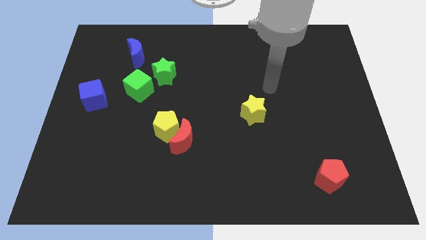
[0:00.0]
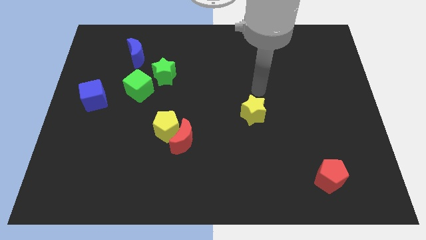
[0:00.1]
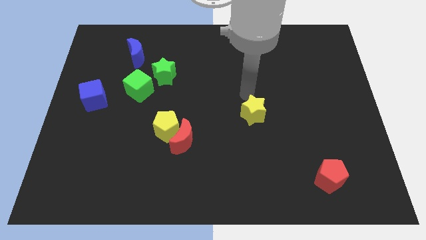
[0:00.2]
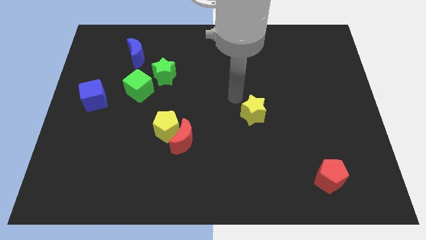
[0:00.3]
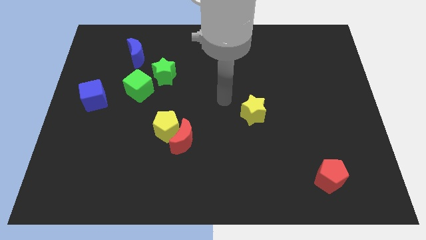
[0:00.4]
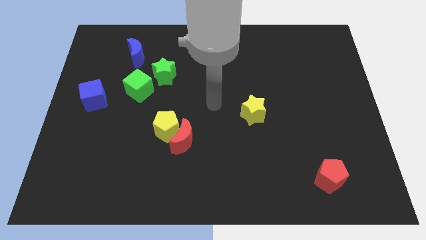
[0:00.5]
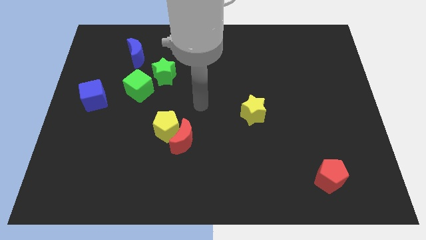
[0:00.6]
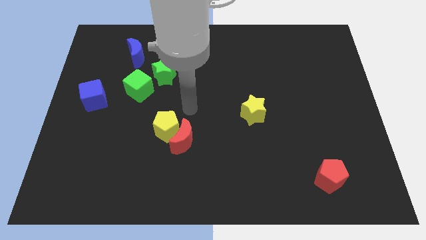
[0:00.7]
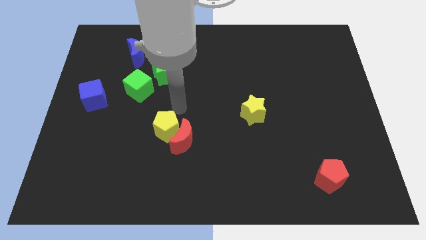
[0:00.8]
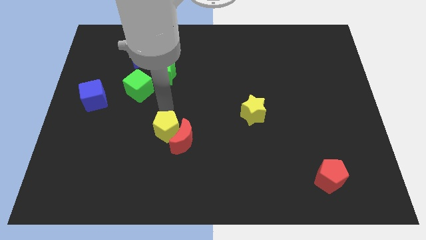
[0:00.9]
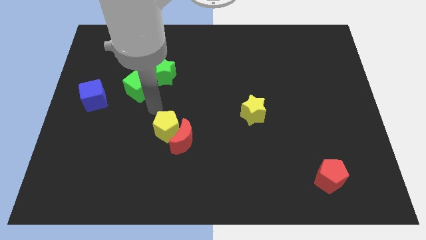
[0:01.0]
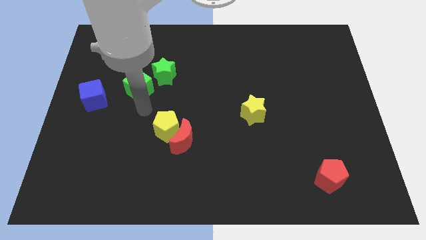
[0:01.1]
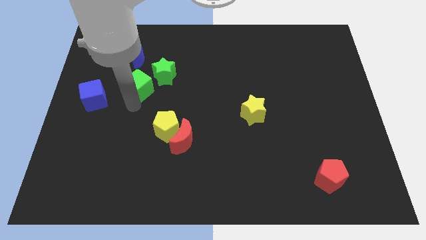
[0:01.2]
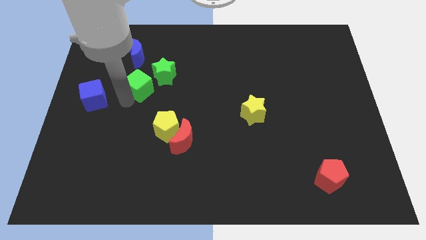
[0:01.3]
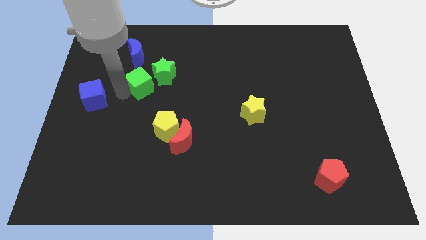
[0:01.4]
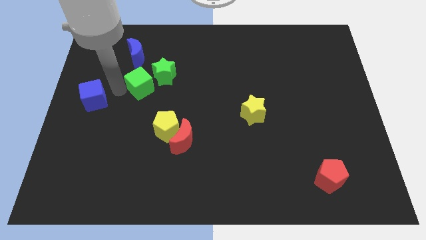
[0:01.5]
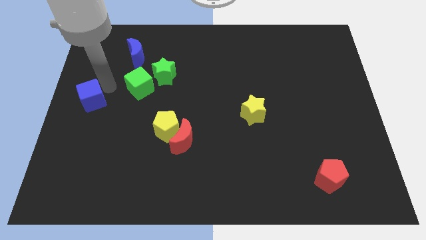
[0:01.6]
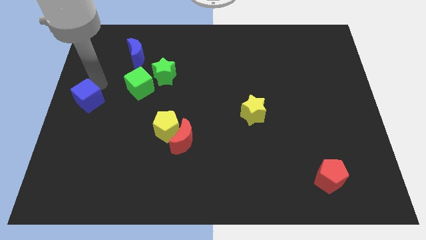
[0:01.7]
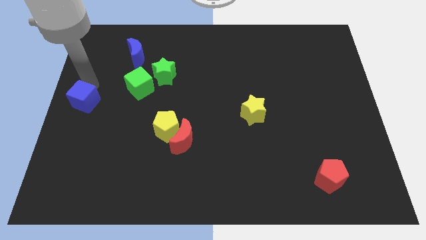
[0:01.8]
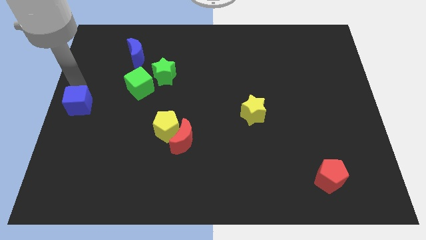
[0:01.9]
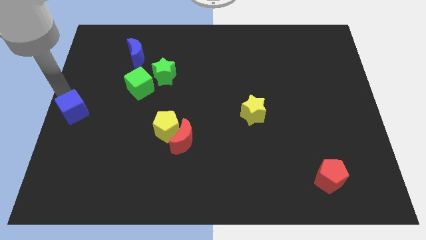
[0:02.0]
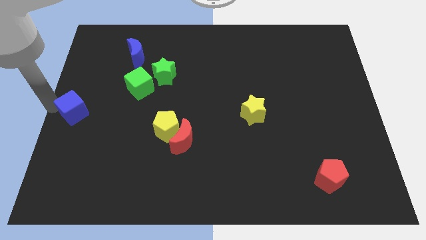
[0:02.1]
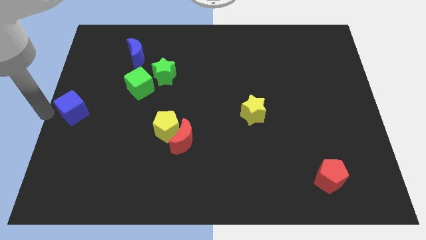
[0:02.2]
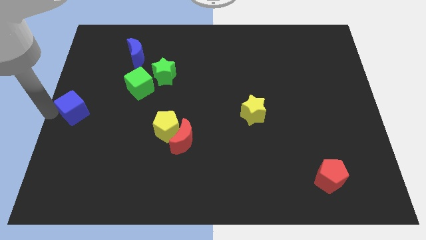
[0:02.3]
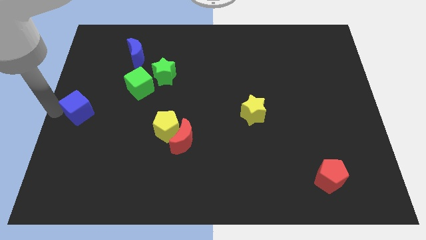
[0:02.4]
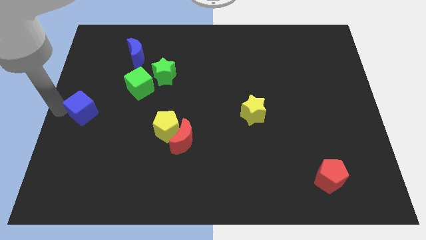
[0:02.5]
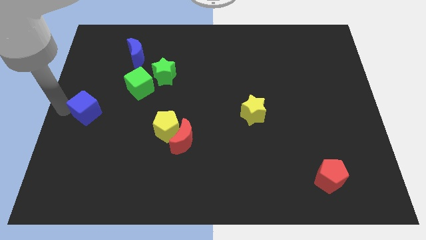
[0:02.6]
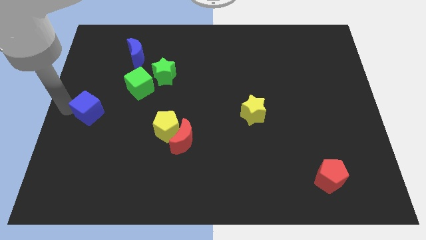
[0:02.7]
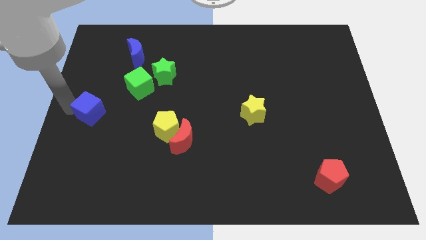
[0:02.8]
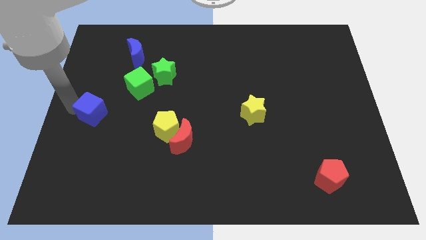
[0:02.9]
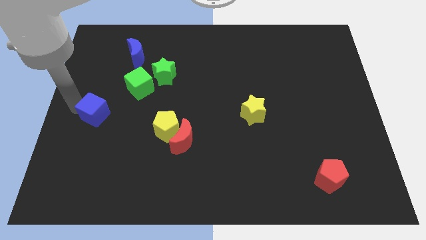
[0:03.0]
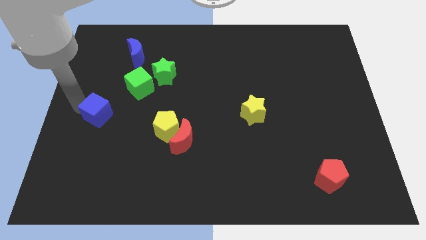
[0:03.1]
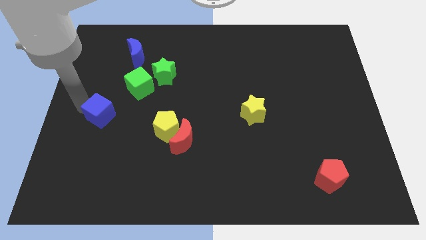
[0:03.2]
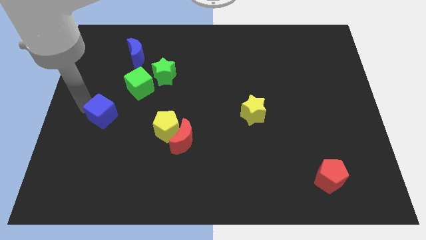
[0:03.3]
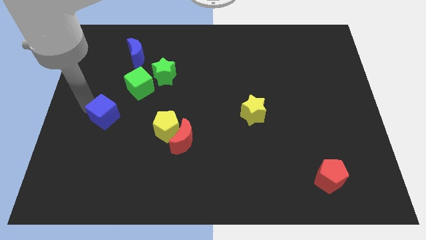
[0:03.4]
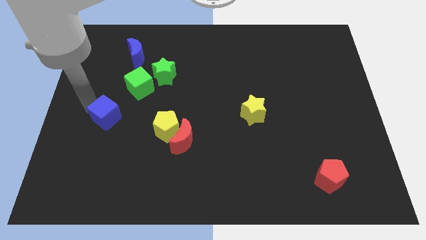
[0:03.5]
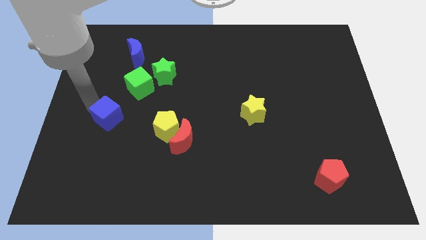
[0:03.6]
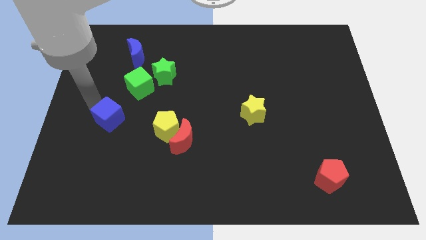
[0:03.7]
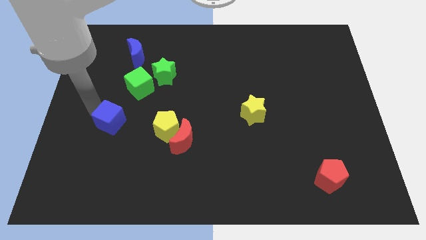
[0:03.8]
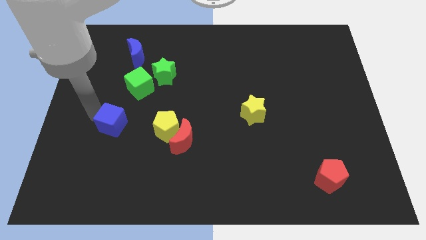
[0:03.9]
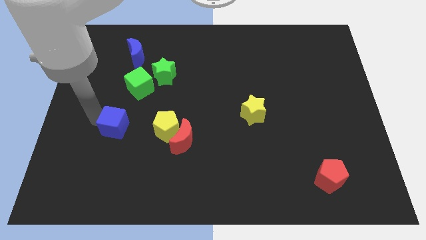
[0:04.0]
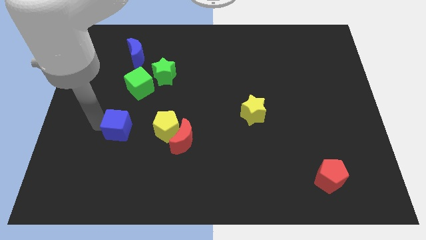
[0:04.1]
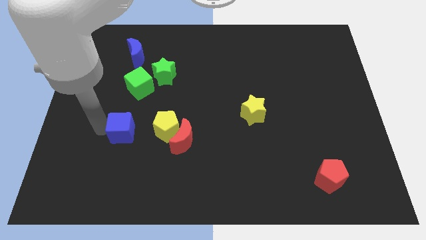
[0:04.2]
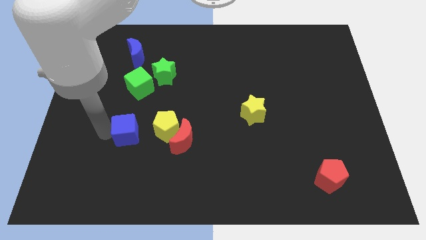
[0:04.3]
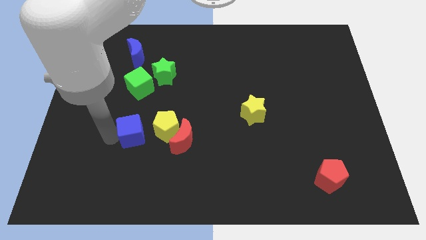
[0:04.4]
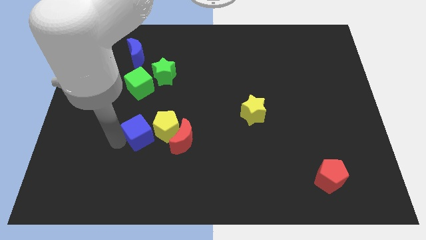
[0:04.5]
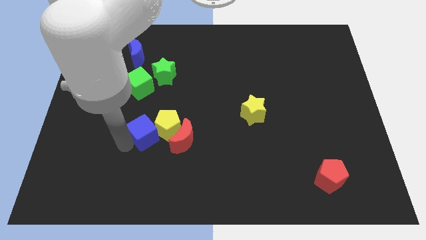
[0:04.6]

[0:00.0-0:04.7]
push the blue cube a little right

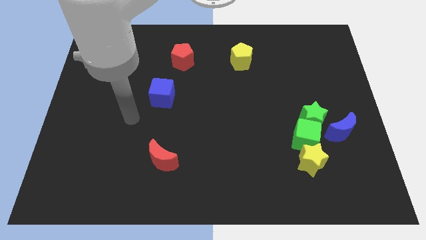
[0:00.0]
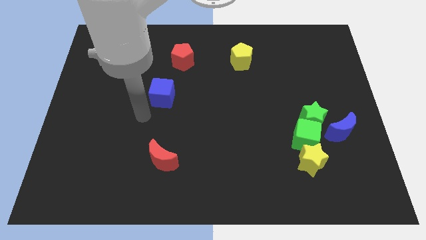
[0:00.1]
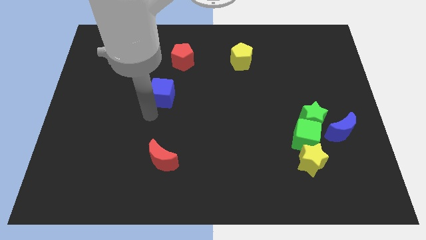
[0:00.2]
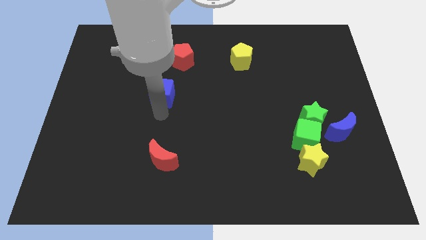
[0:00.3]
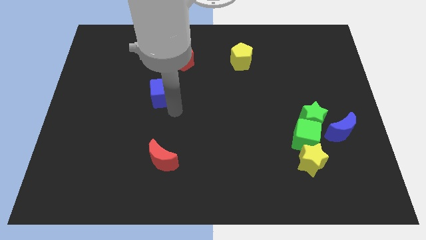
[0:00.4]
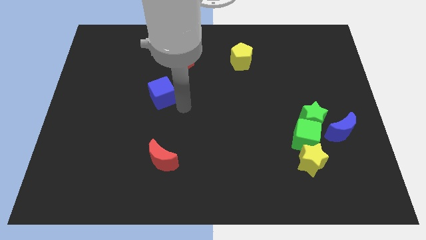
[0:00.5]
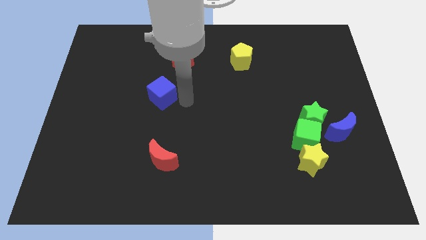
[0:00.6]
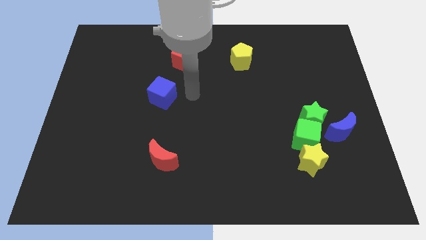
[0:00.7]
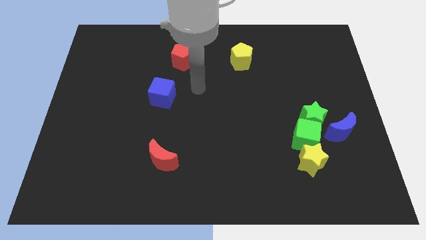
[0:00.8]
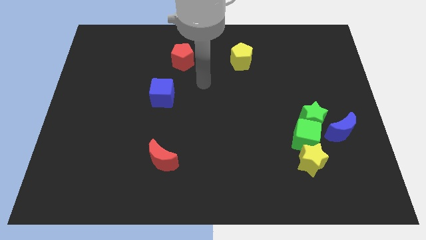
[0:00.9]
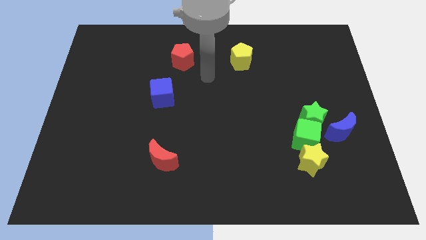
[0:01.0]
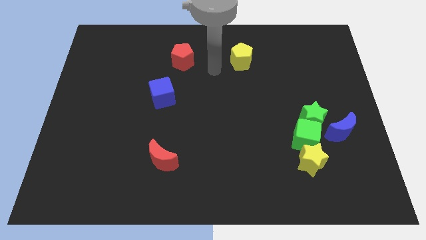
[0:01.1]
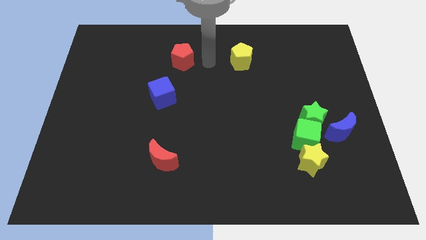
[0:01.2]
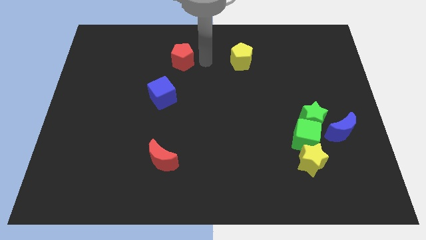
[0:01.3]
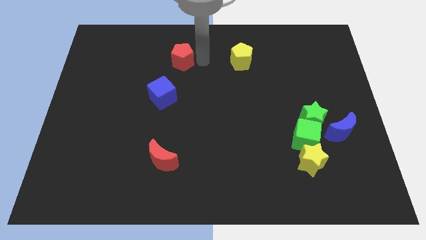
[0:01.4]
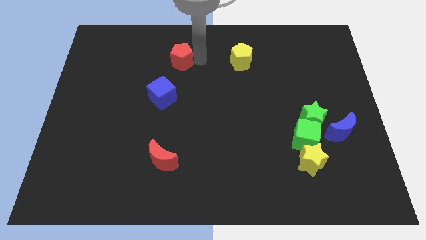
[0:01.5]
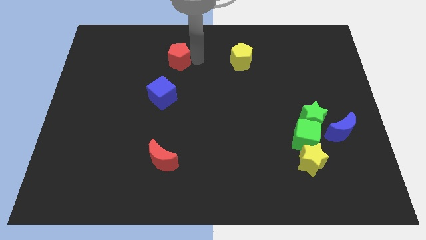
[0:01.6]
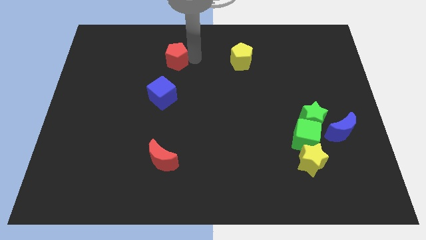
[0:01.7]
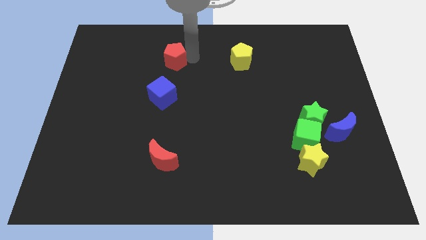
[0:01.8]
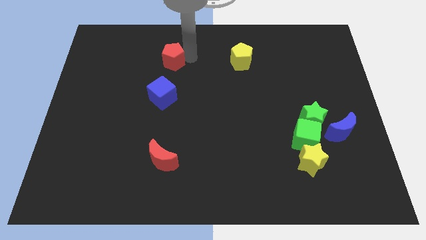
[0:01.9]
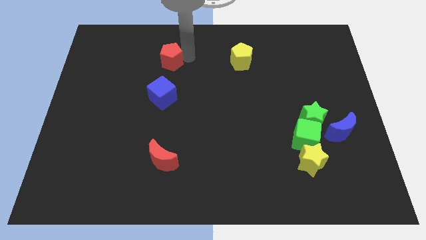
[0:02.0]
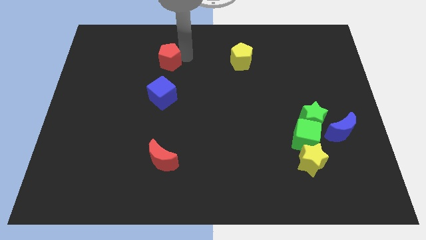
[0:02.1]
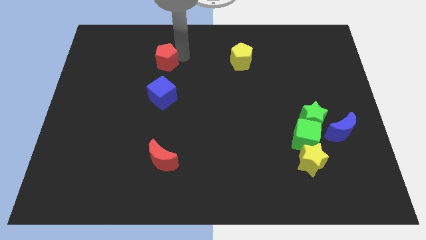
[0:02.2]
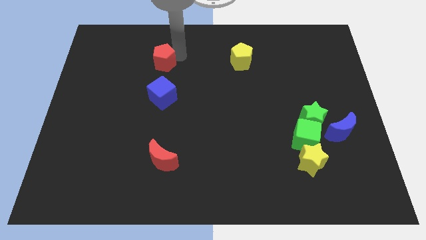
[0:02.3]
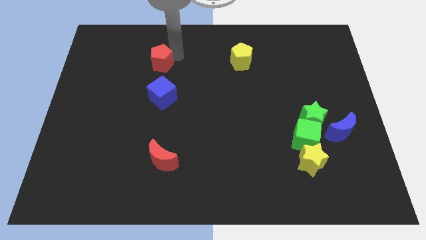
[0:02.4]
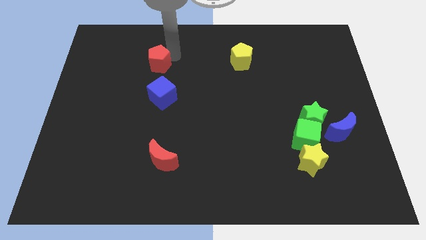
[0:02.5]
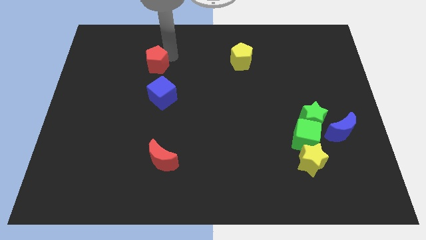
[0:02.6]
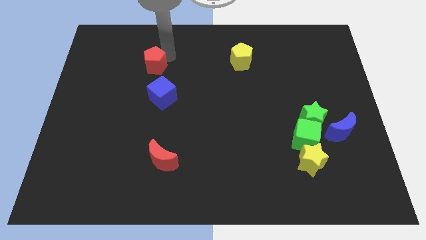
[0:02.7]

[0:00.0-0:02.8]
push the red pentagon to the left slightly

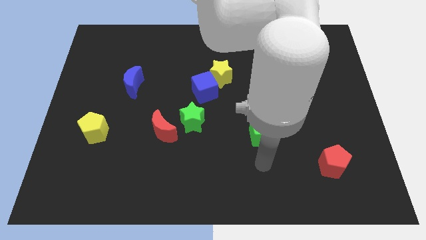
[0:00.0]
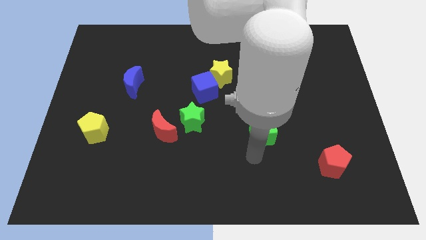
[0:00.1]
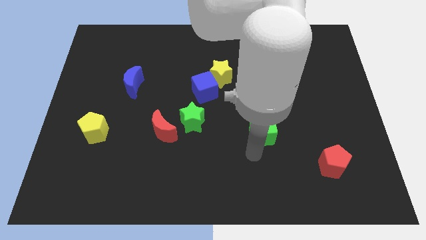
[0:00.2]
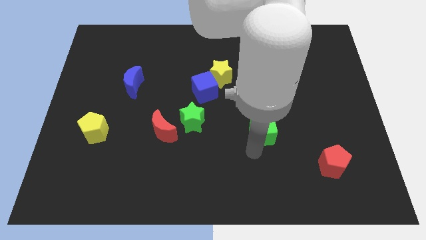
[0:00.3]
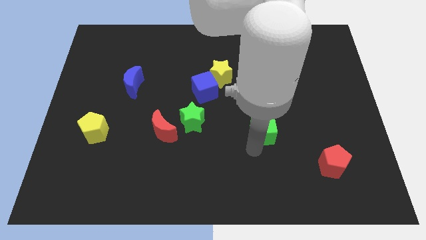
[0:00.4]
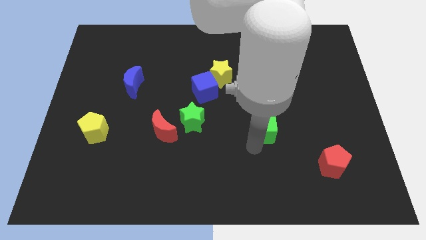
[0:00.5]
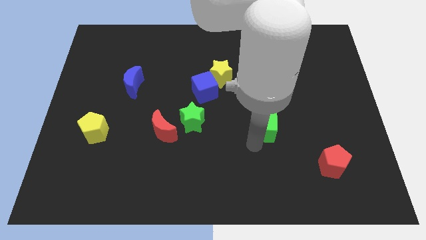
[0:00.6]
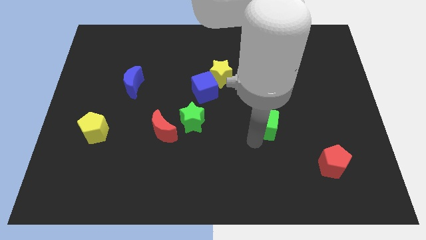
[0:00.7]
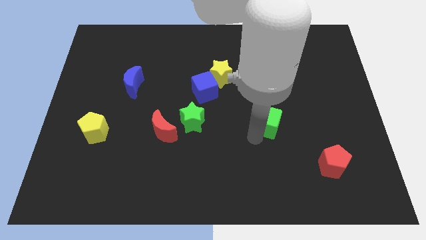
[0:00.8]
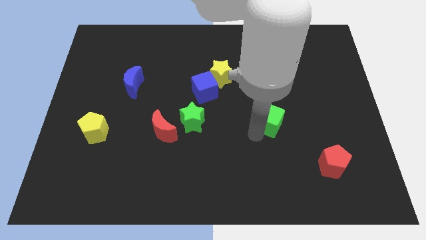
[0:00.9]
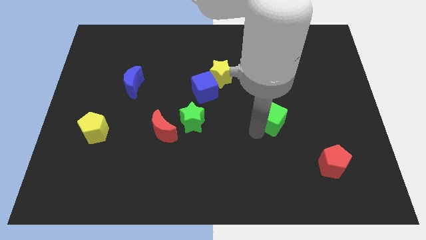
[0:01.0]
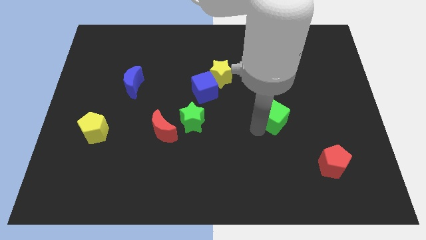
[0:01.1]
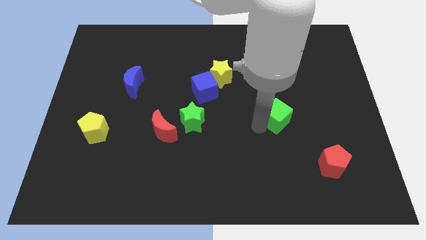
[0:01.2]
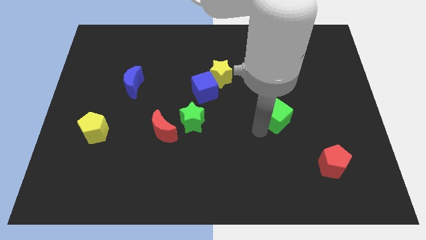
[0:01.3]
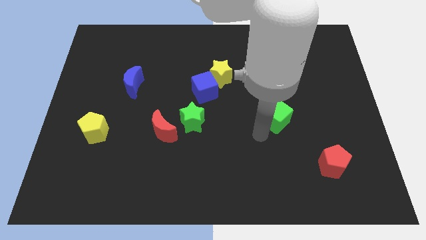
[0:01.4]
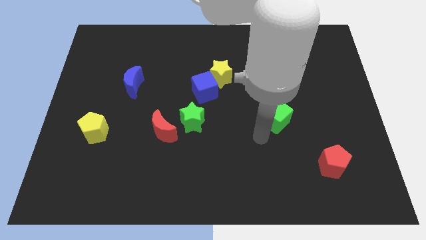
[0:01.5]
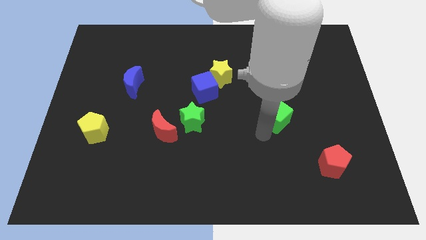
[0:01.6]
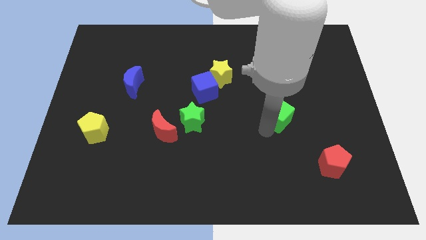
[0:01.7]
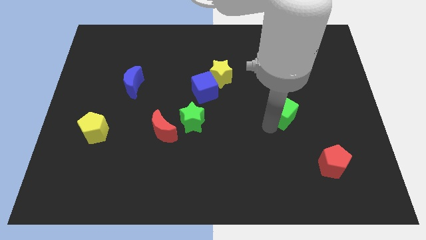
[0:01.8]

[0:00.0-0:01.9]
slide the green cube up and then to the right a little bit
